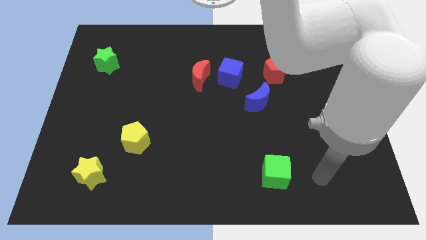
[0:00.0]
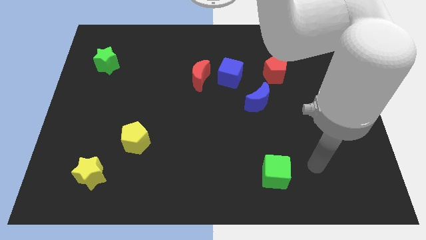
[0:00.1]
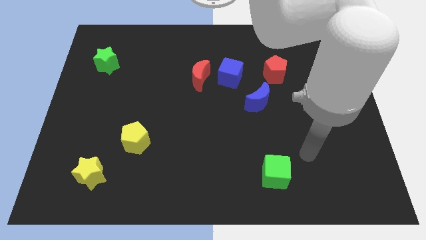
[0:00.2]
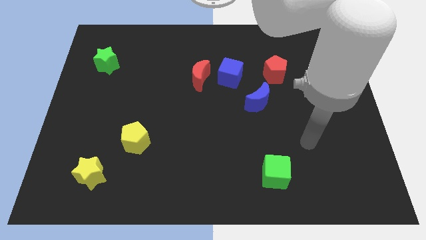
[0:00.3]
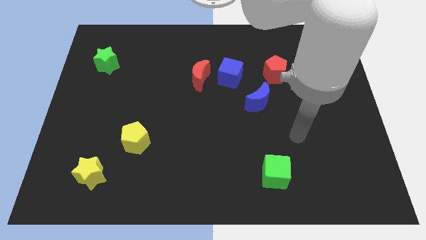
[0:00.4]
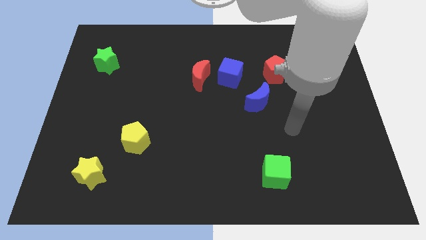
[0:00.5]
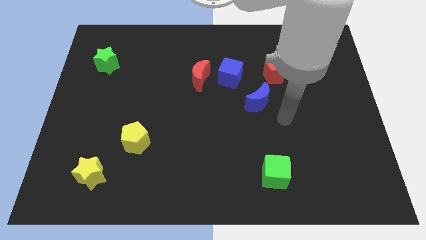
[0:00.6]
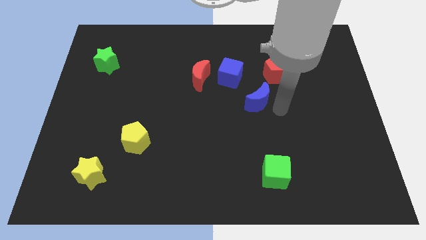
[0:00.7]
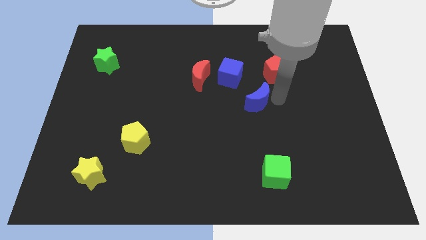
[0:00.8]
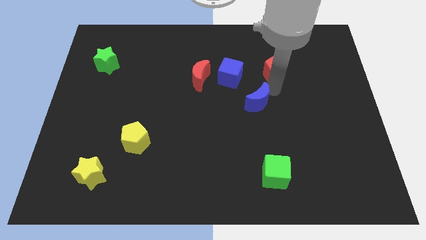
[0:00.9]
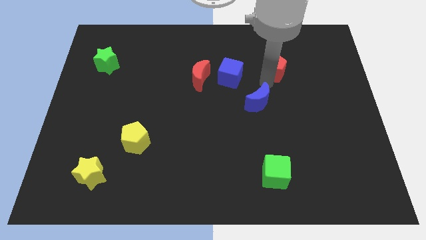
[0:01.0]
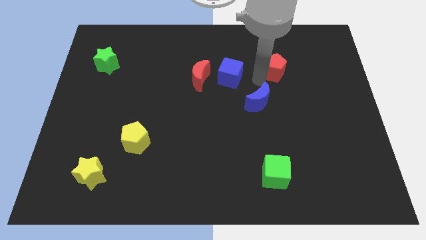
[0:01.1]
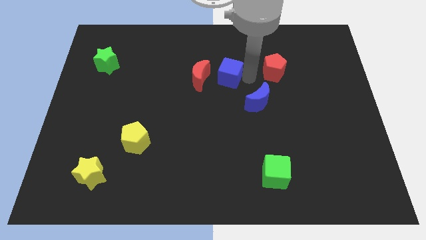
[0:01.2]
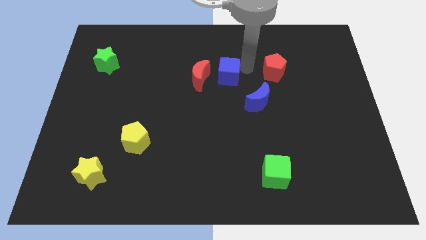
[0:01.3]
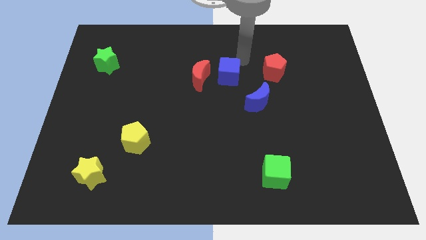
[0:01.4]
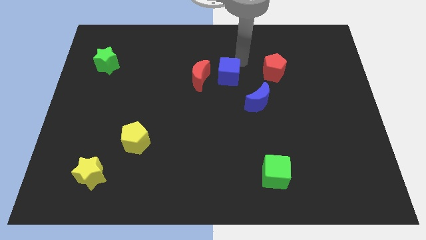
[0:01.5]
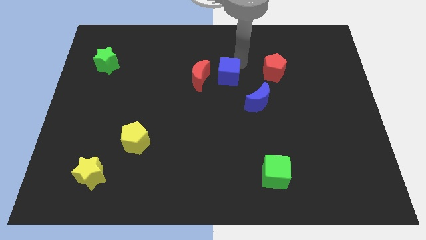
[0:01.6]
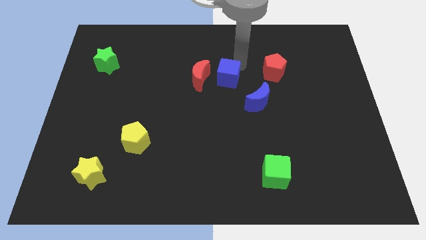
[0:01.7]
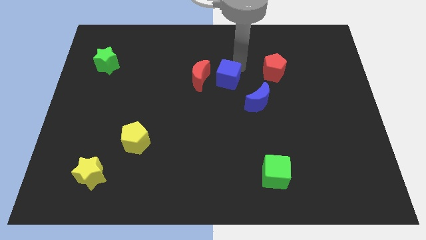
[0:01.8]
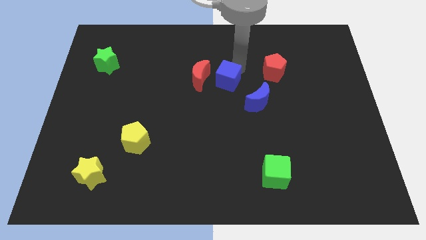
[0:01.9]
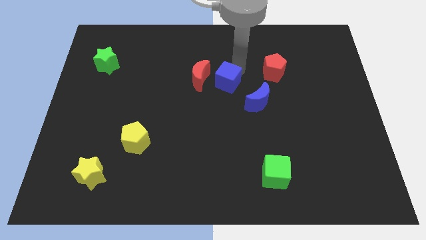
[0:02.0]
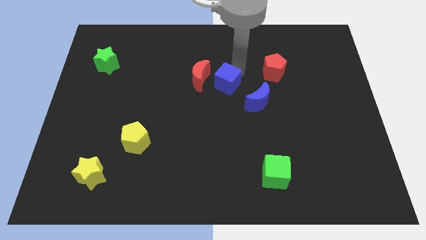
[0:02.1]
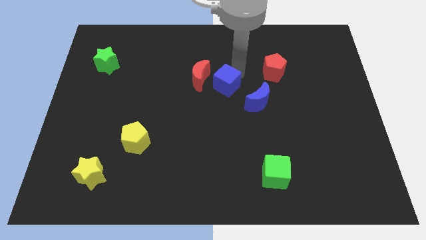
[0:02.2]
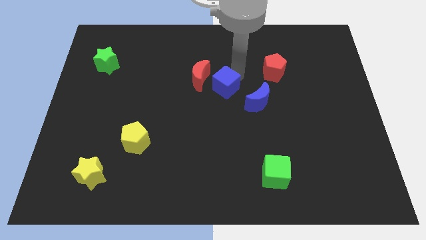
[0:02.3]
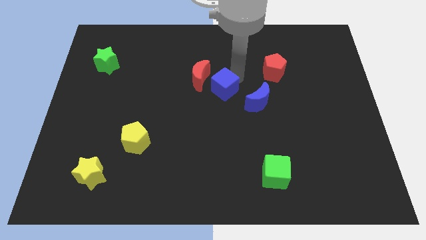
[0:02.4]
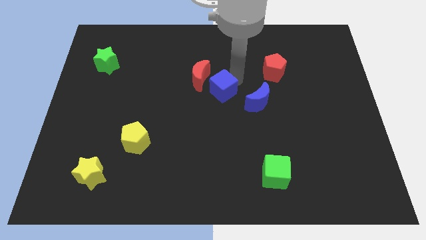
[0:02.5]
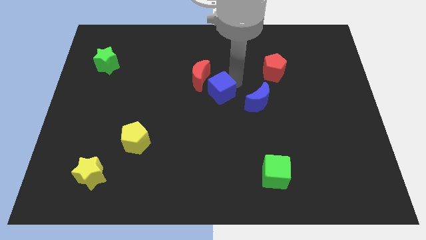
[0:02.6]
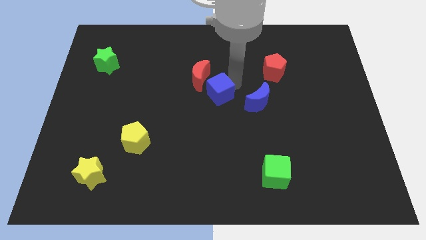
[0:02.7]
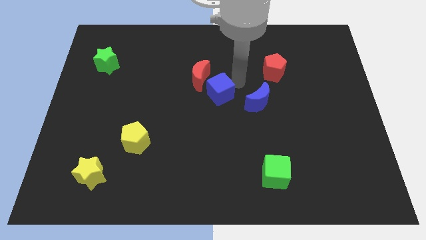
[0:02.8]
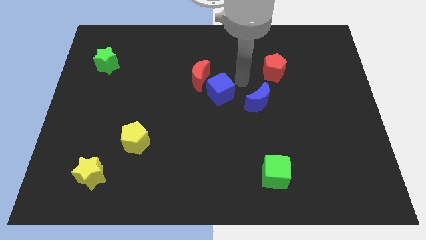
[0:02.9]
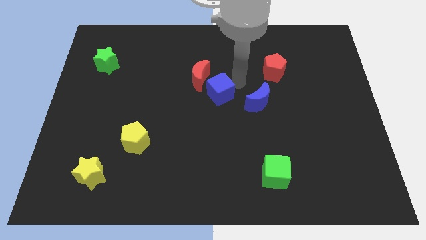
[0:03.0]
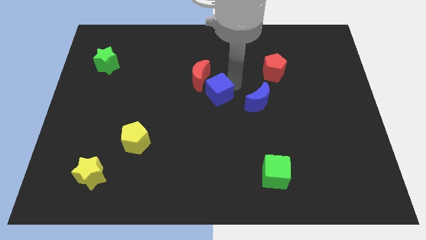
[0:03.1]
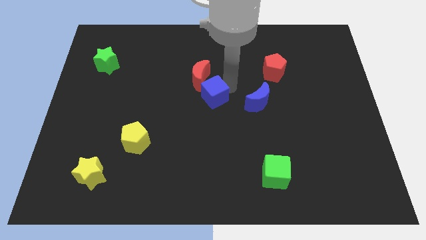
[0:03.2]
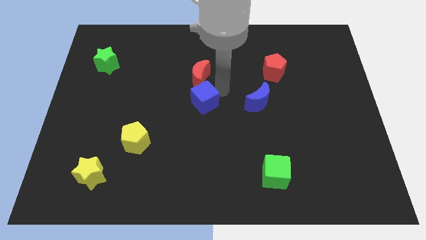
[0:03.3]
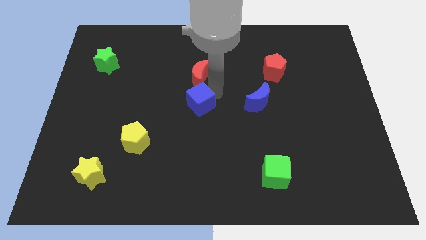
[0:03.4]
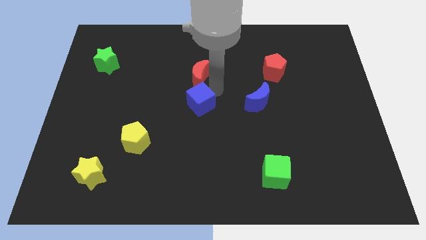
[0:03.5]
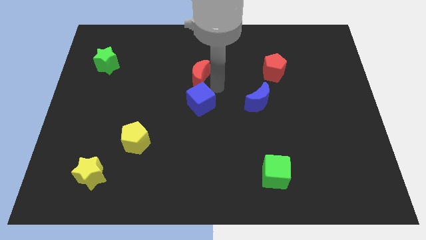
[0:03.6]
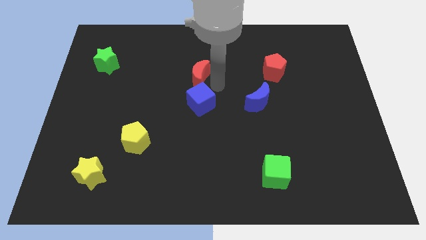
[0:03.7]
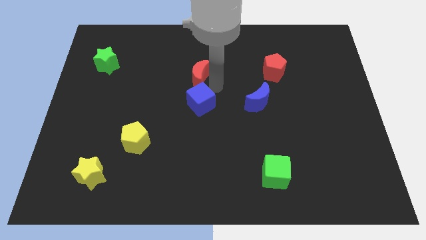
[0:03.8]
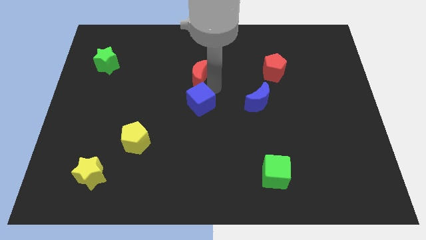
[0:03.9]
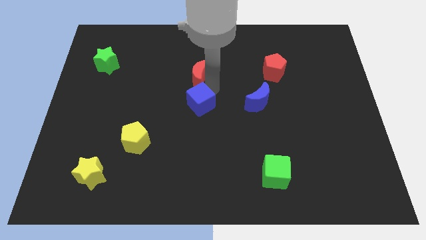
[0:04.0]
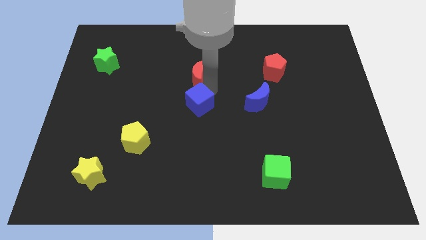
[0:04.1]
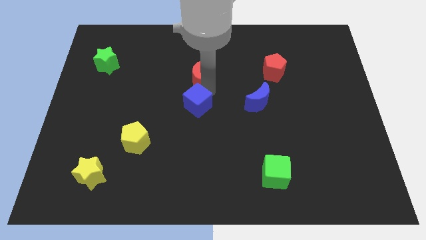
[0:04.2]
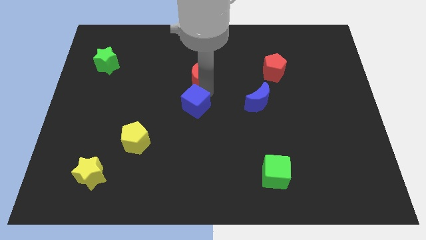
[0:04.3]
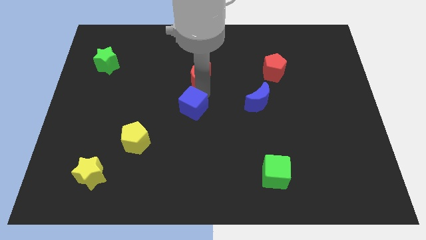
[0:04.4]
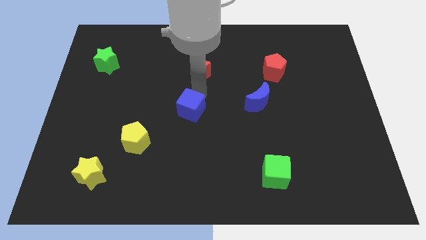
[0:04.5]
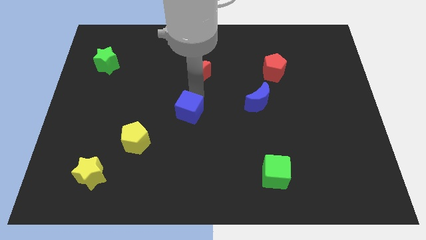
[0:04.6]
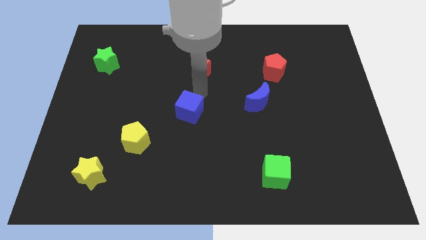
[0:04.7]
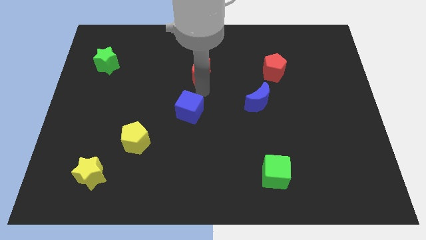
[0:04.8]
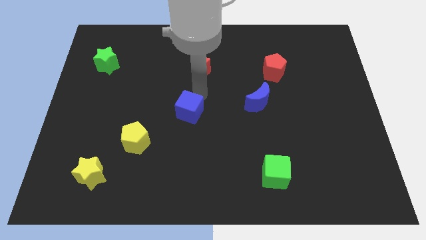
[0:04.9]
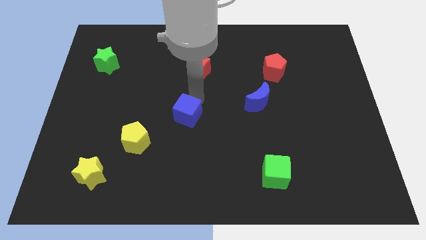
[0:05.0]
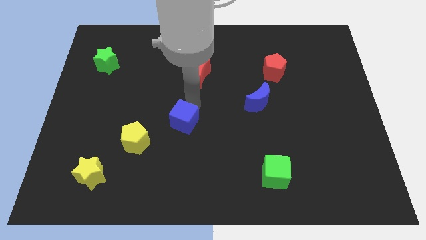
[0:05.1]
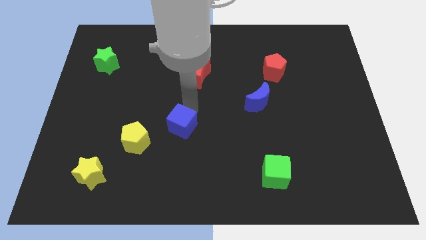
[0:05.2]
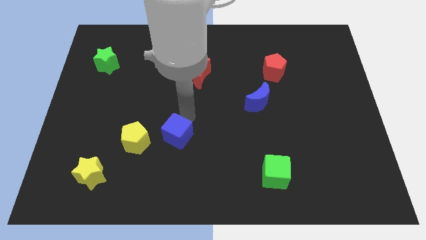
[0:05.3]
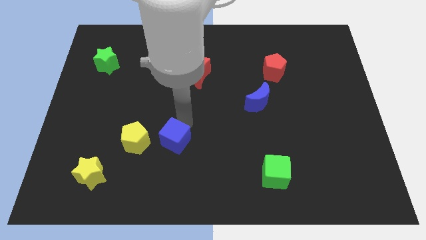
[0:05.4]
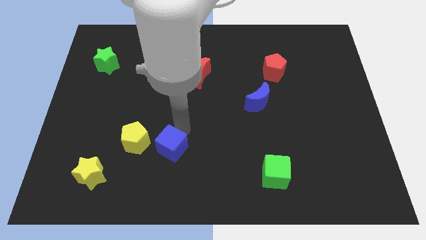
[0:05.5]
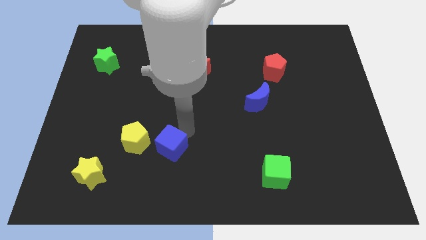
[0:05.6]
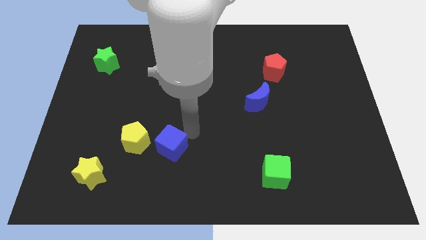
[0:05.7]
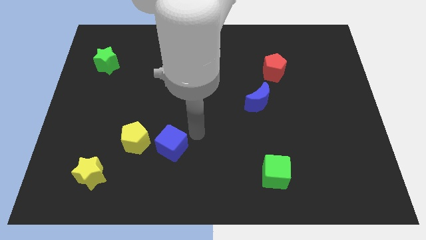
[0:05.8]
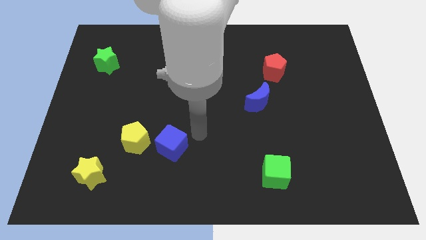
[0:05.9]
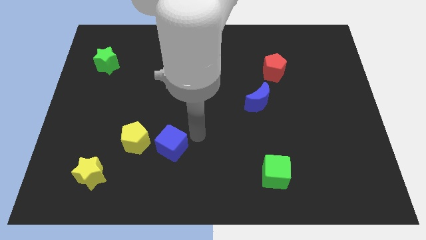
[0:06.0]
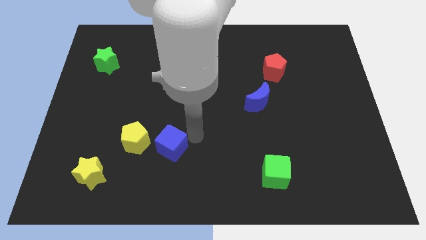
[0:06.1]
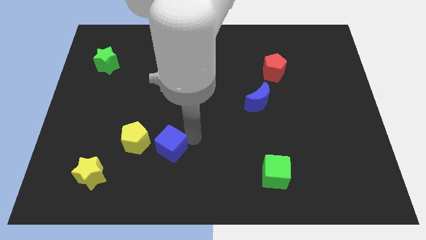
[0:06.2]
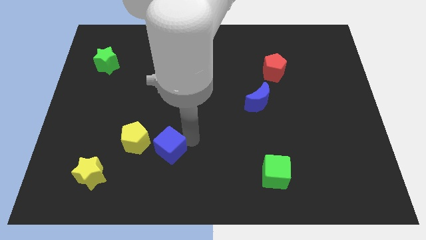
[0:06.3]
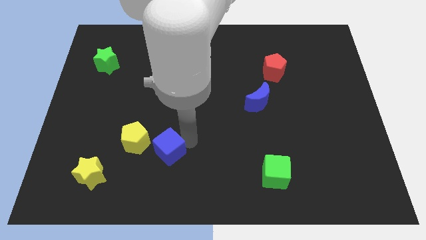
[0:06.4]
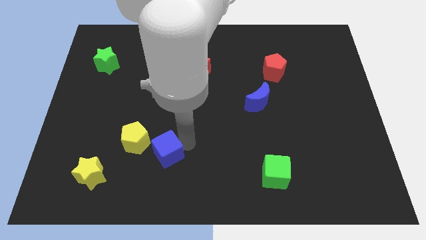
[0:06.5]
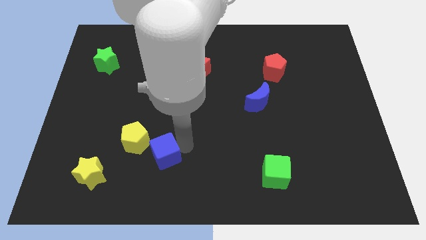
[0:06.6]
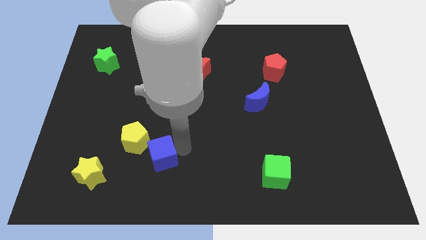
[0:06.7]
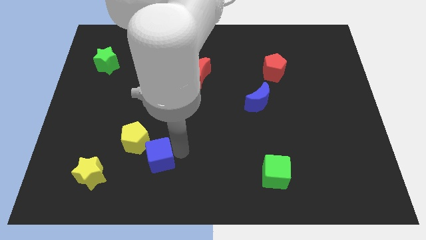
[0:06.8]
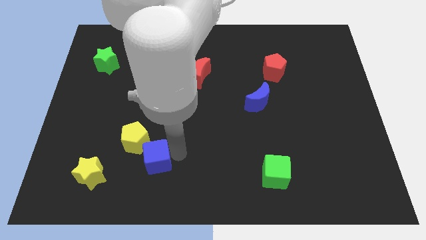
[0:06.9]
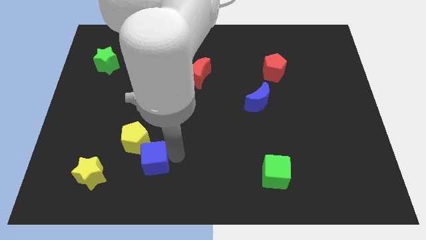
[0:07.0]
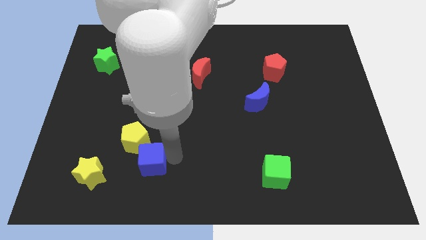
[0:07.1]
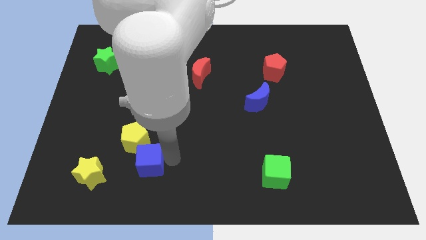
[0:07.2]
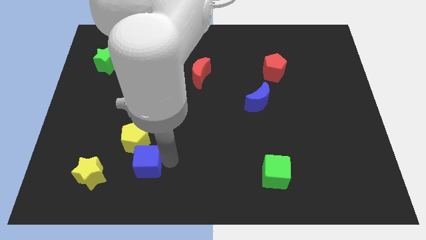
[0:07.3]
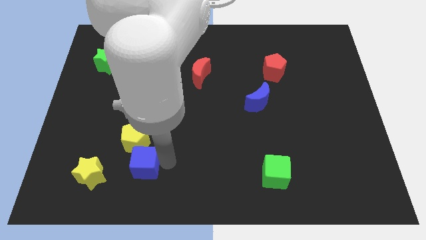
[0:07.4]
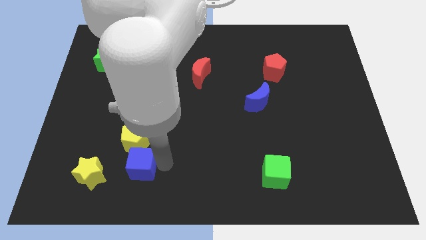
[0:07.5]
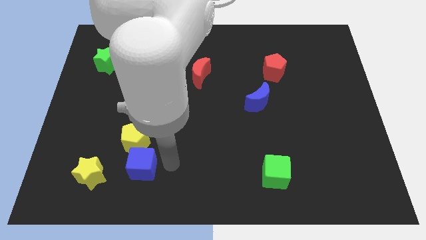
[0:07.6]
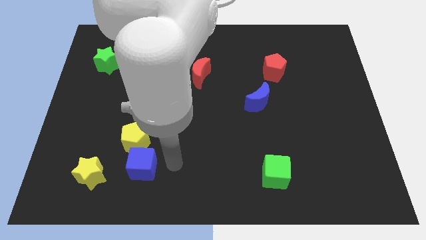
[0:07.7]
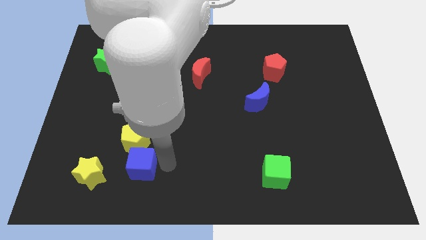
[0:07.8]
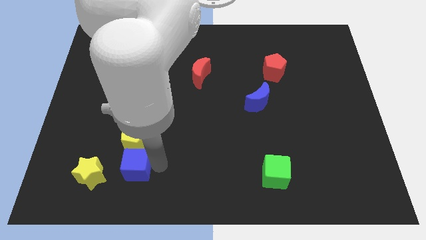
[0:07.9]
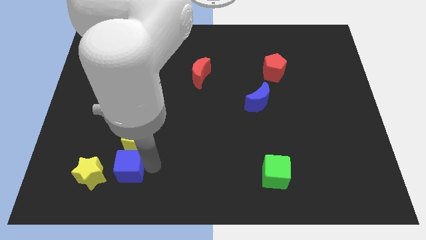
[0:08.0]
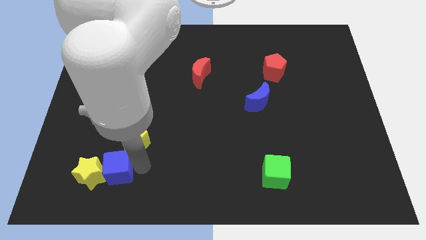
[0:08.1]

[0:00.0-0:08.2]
put the blue cube to the yellow star

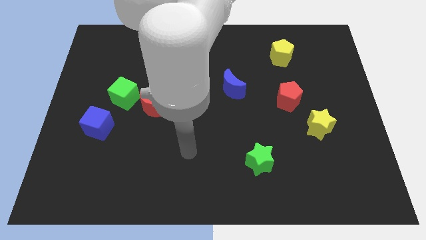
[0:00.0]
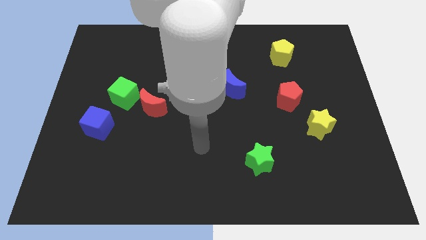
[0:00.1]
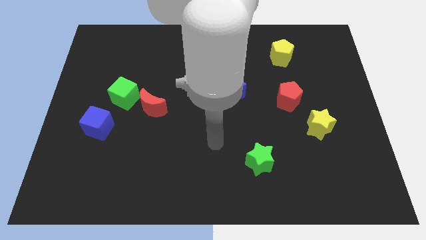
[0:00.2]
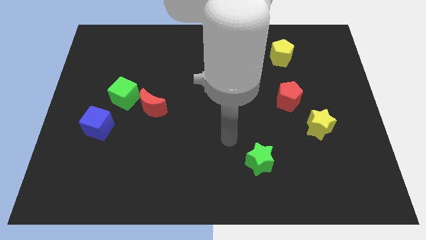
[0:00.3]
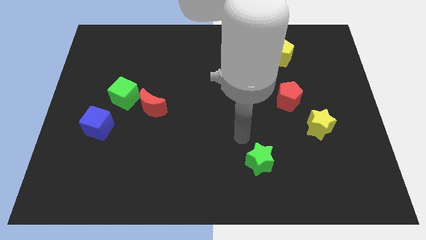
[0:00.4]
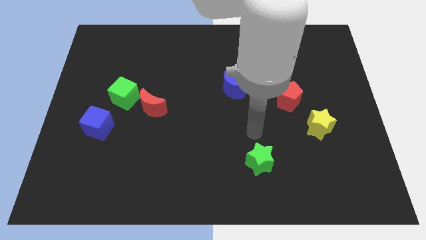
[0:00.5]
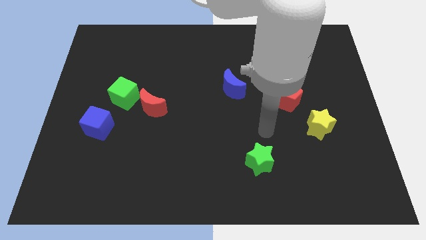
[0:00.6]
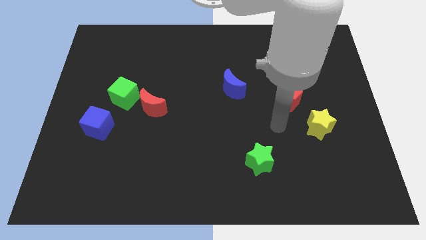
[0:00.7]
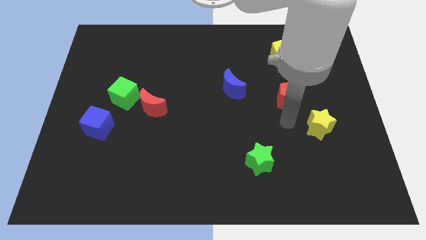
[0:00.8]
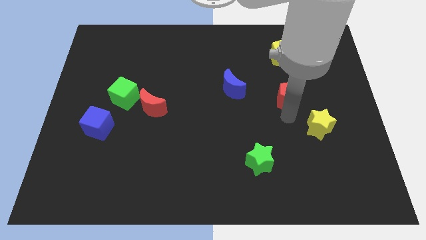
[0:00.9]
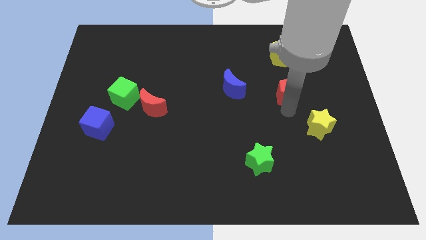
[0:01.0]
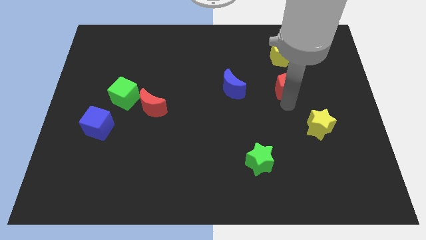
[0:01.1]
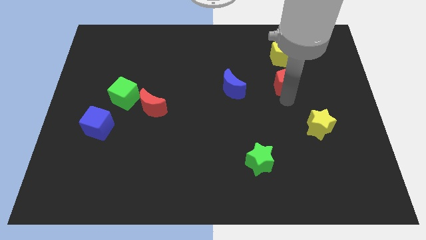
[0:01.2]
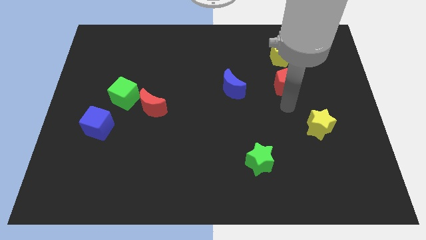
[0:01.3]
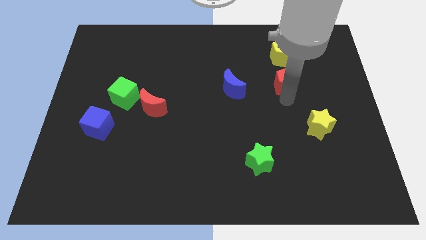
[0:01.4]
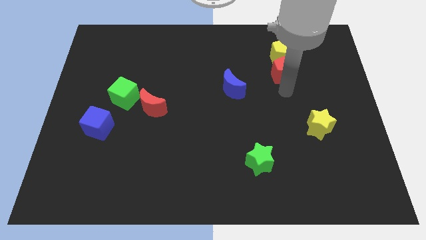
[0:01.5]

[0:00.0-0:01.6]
move the red pentagon to the yellow pentagon
